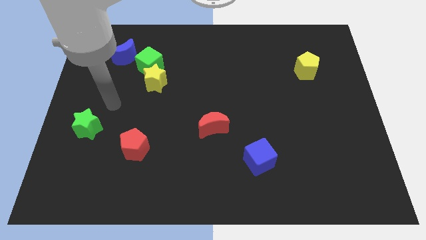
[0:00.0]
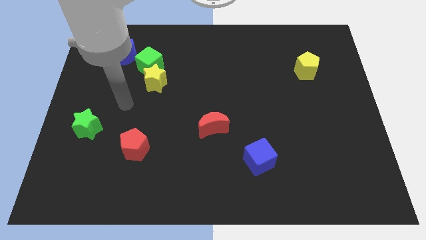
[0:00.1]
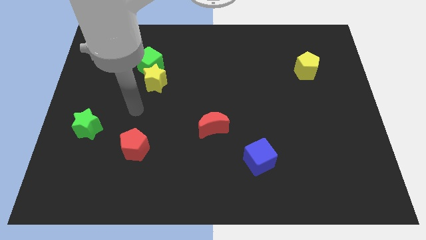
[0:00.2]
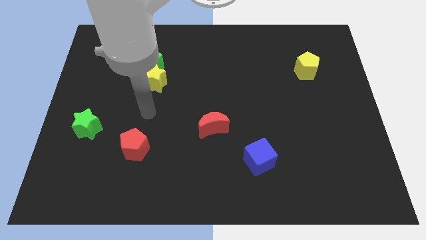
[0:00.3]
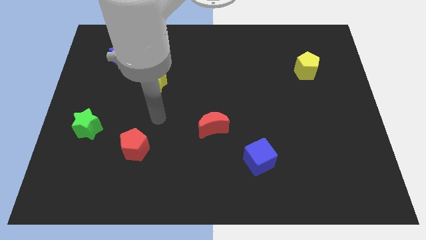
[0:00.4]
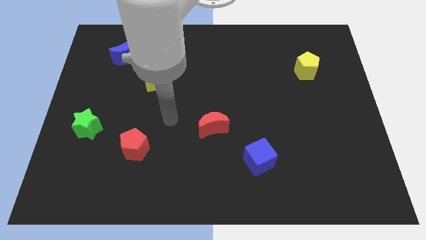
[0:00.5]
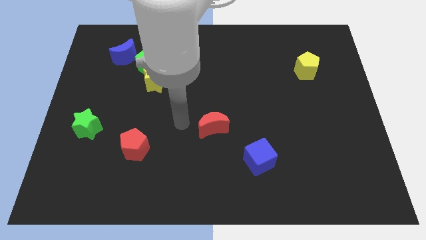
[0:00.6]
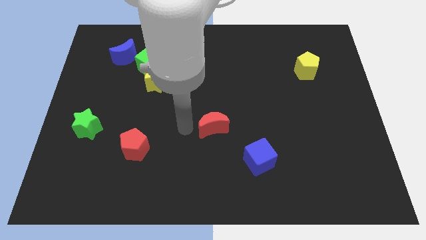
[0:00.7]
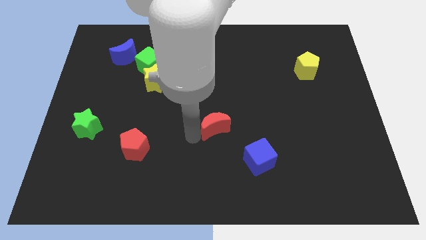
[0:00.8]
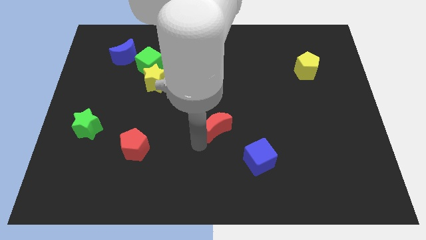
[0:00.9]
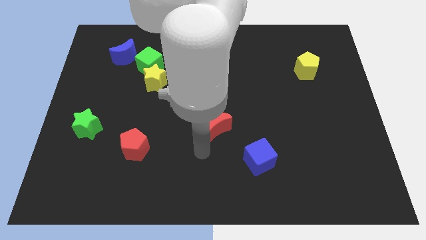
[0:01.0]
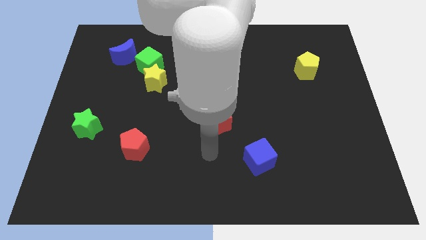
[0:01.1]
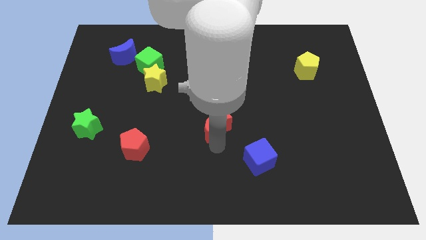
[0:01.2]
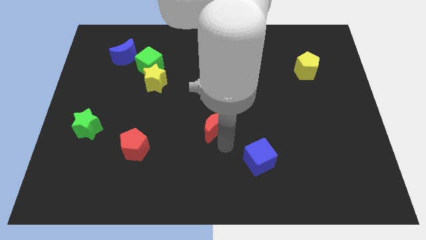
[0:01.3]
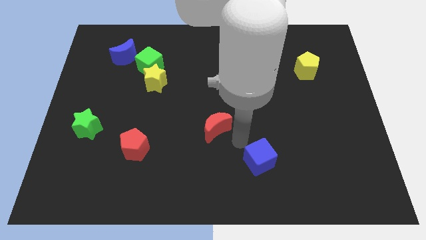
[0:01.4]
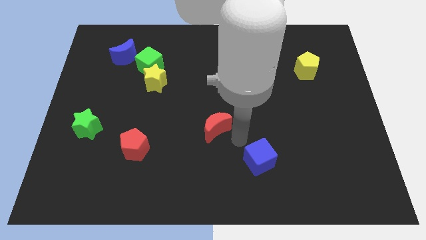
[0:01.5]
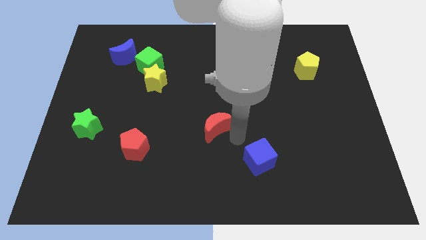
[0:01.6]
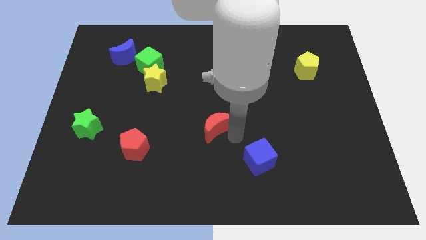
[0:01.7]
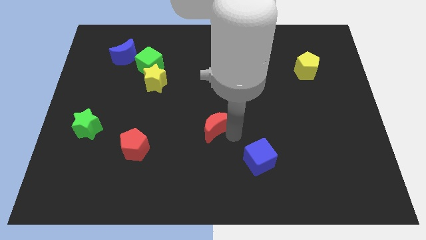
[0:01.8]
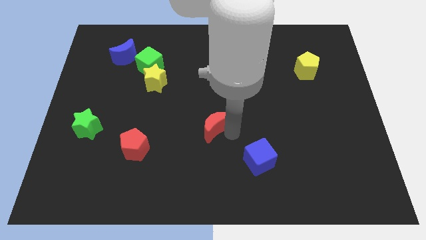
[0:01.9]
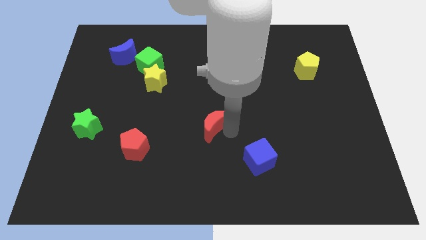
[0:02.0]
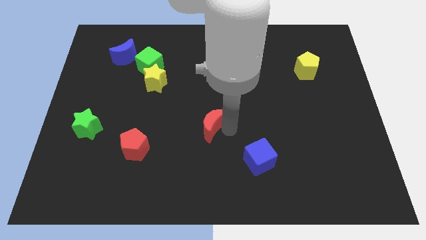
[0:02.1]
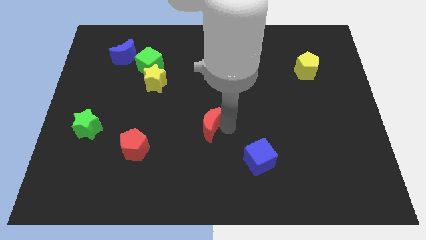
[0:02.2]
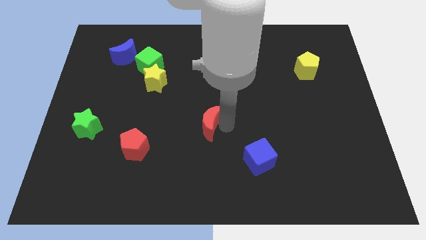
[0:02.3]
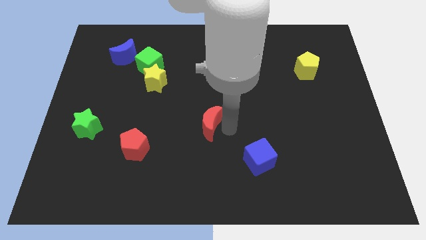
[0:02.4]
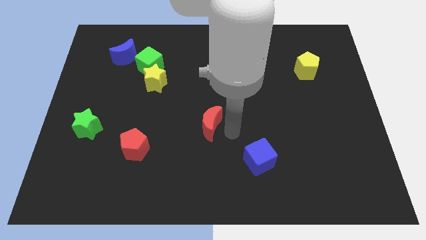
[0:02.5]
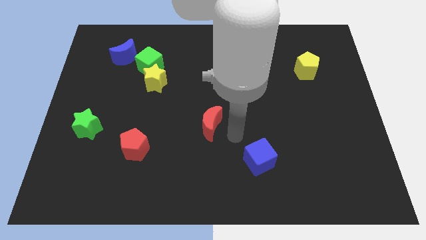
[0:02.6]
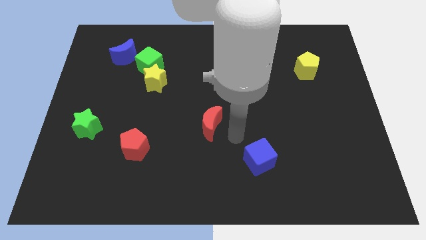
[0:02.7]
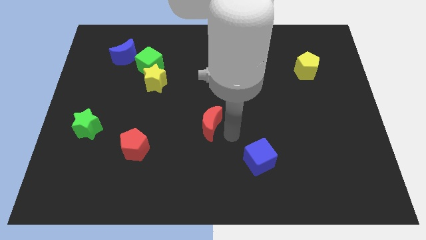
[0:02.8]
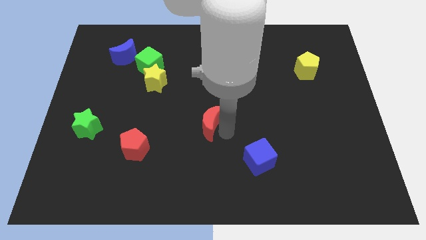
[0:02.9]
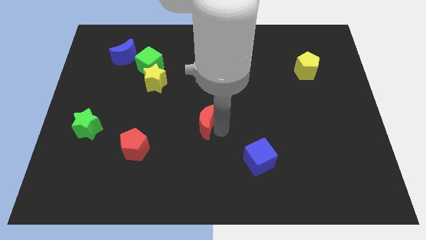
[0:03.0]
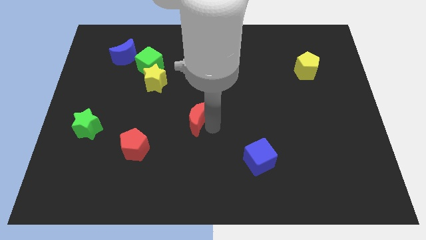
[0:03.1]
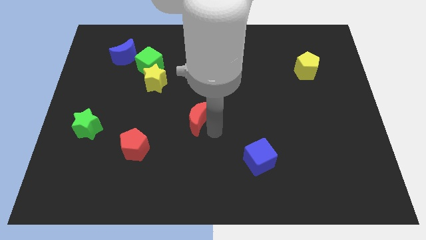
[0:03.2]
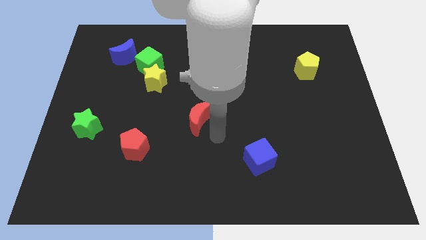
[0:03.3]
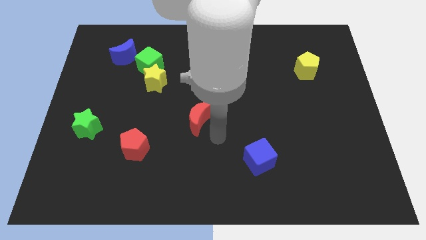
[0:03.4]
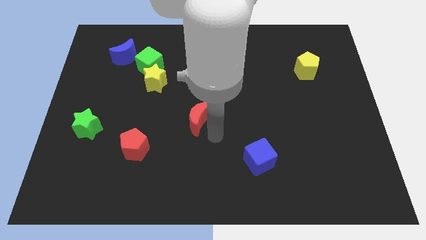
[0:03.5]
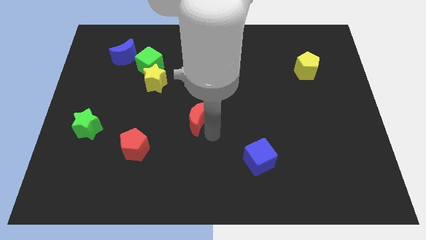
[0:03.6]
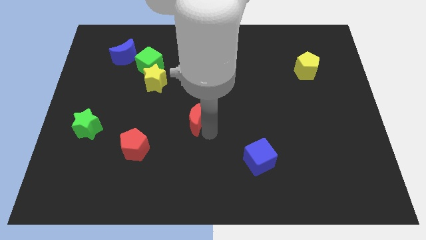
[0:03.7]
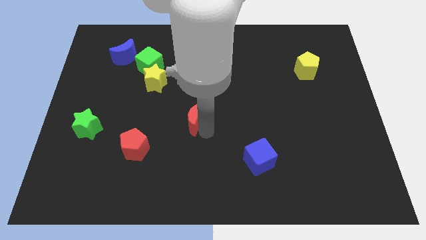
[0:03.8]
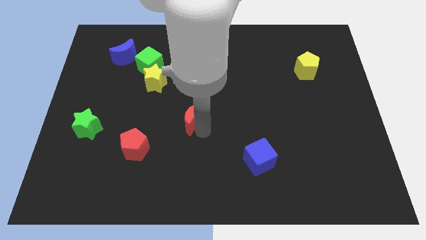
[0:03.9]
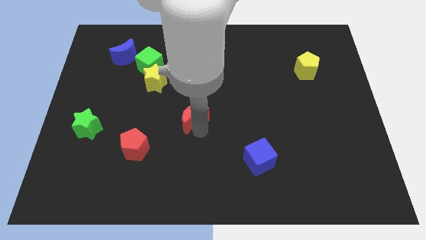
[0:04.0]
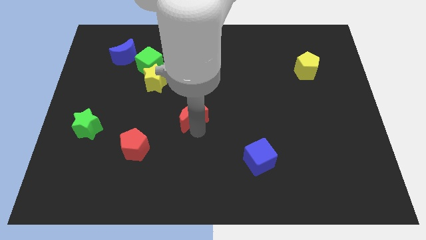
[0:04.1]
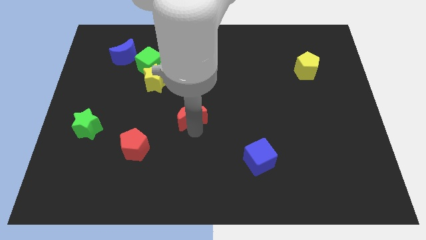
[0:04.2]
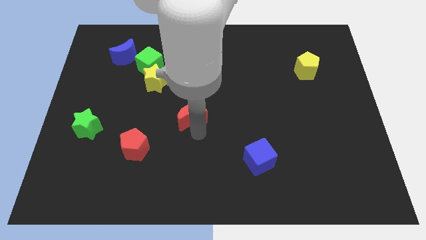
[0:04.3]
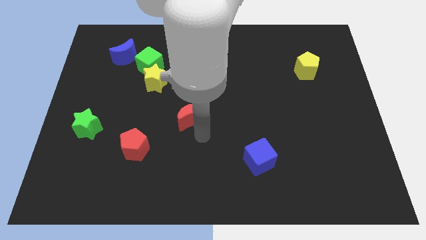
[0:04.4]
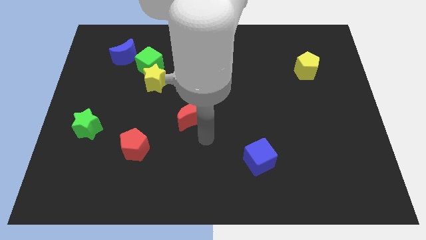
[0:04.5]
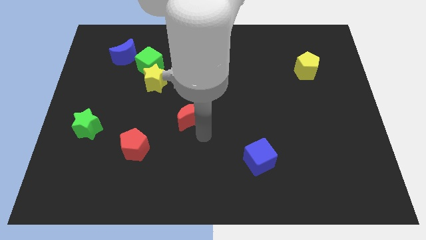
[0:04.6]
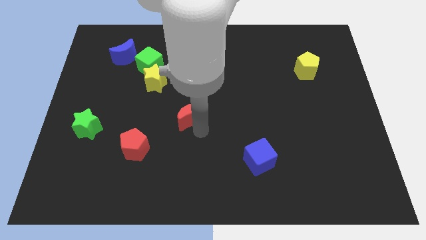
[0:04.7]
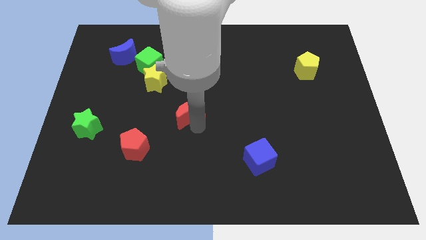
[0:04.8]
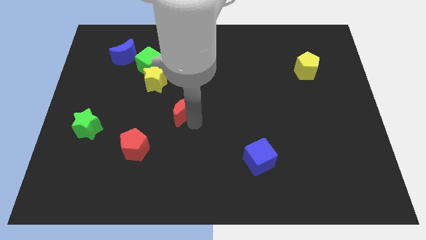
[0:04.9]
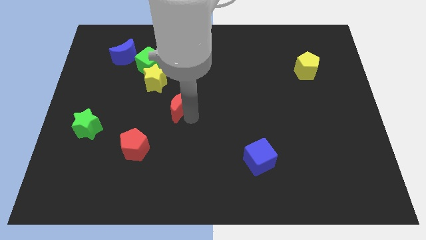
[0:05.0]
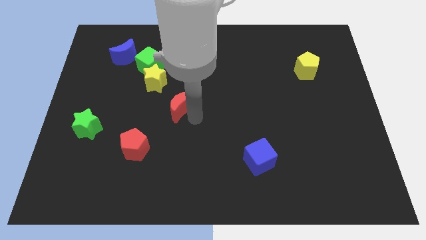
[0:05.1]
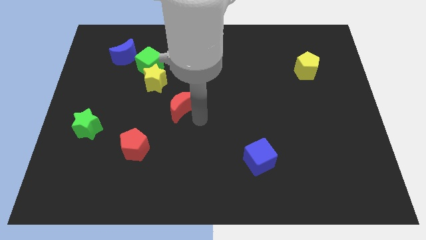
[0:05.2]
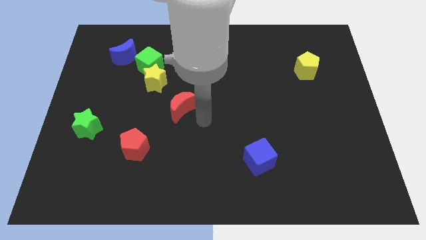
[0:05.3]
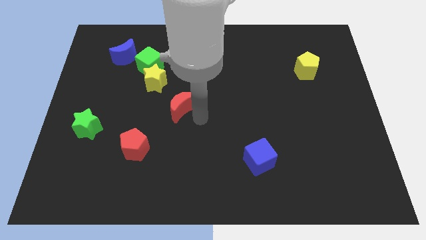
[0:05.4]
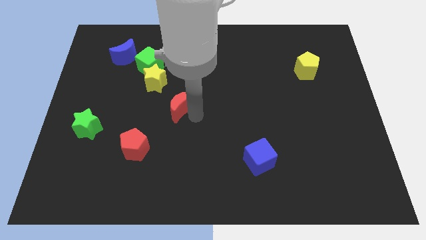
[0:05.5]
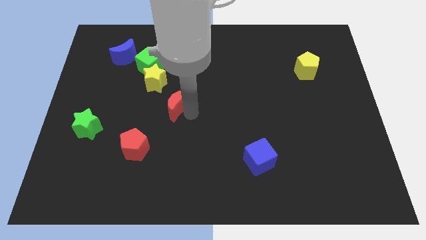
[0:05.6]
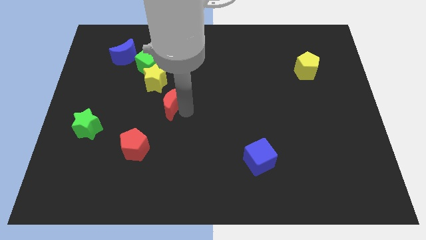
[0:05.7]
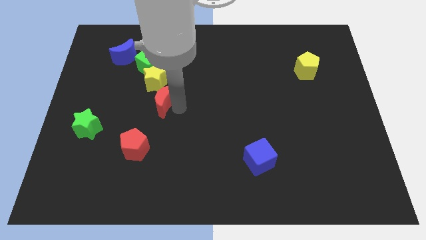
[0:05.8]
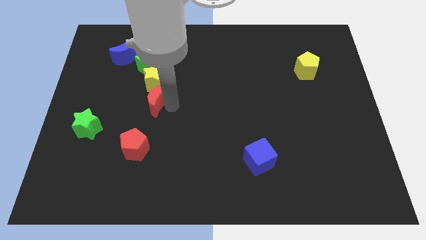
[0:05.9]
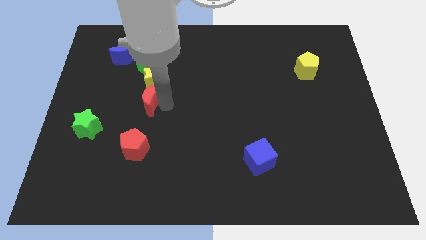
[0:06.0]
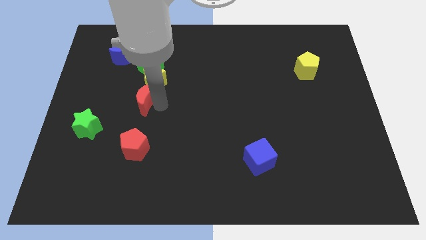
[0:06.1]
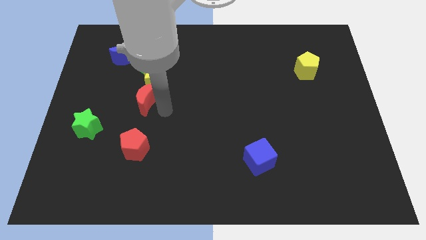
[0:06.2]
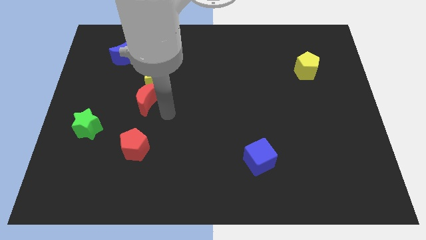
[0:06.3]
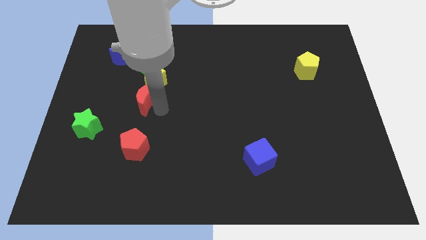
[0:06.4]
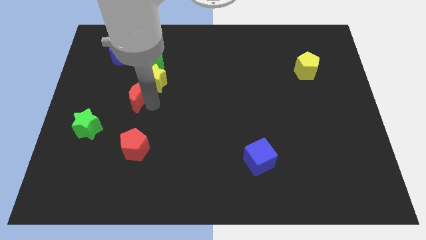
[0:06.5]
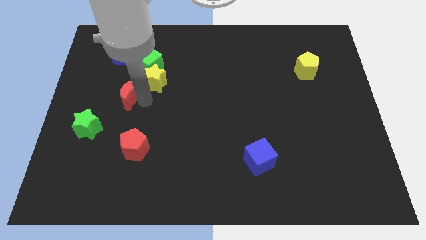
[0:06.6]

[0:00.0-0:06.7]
put the red moon to the left side of the yellow star
